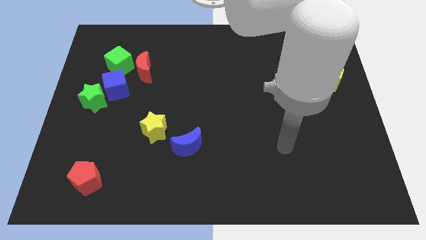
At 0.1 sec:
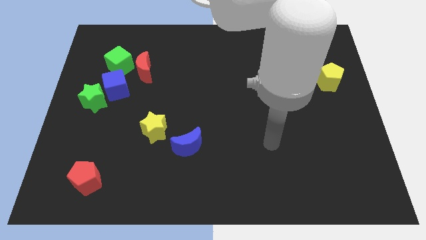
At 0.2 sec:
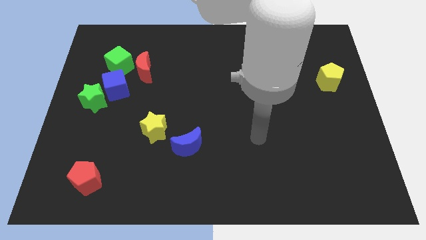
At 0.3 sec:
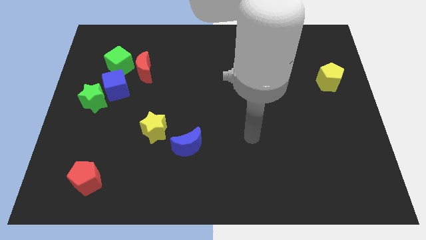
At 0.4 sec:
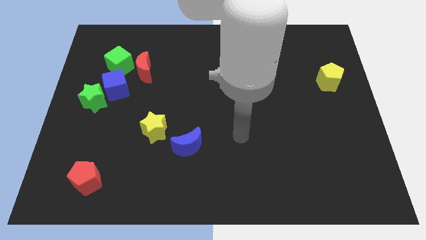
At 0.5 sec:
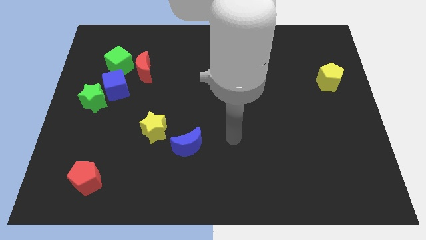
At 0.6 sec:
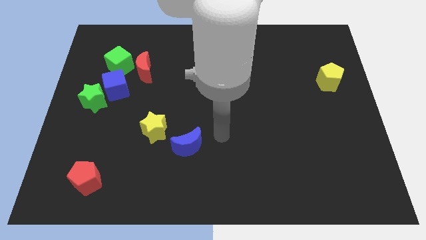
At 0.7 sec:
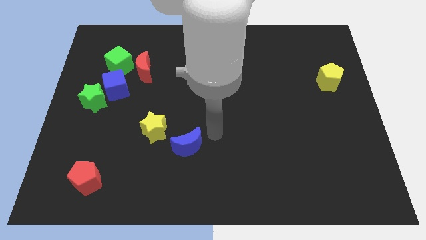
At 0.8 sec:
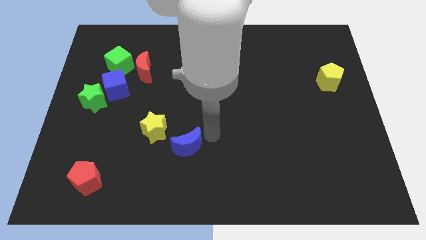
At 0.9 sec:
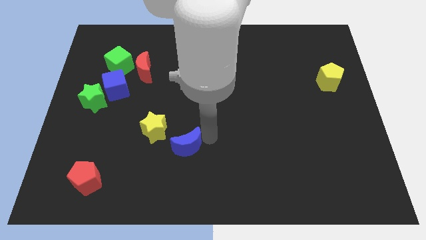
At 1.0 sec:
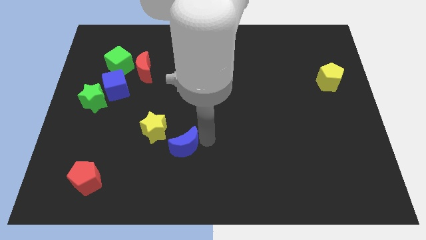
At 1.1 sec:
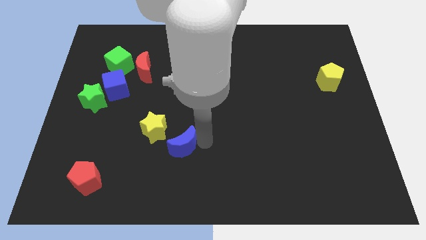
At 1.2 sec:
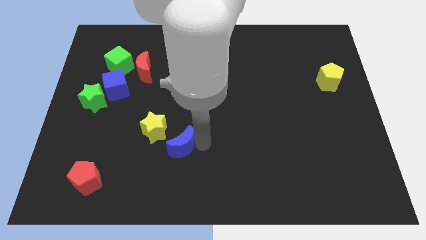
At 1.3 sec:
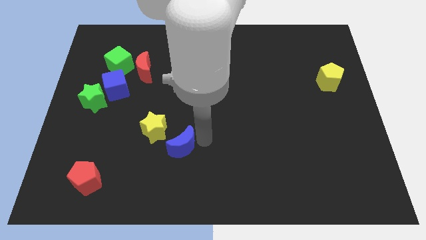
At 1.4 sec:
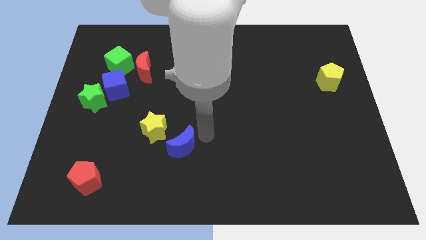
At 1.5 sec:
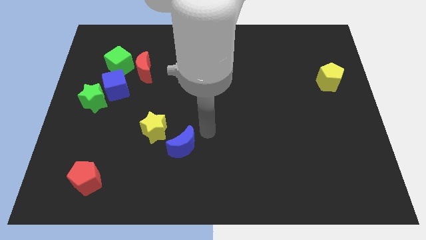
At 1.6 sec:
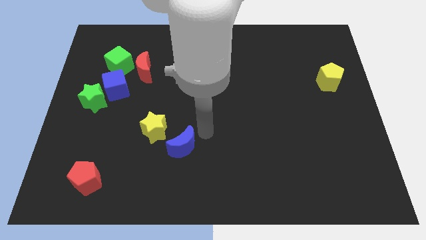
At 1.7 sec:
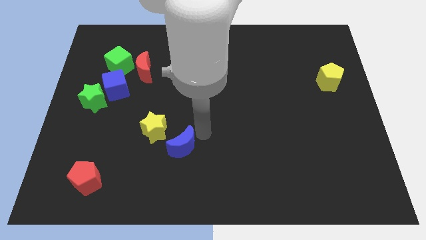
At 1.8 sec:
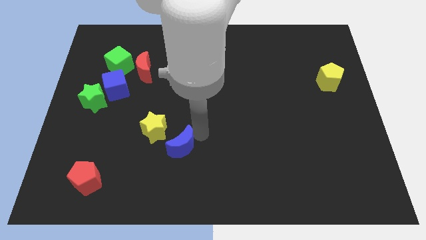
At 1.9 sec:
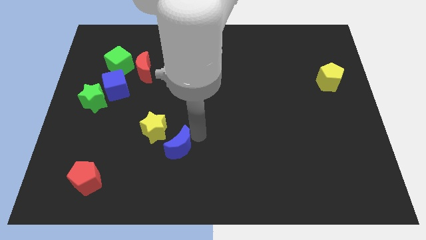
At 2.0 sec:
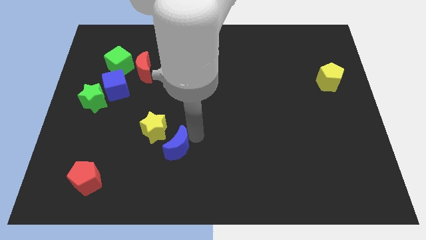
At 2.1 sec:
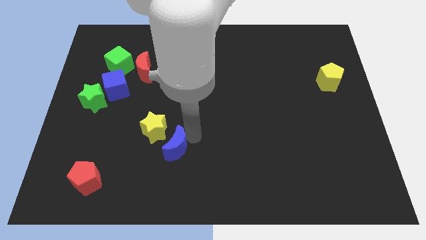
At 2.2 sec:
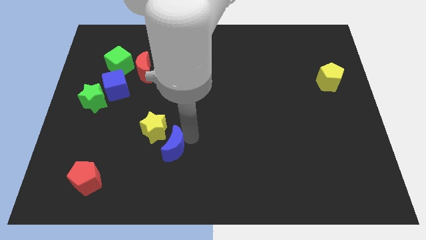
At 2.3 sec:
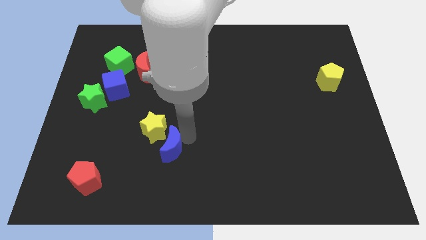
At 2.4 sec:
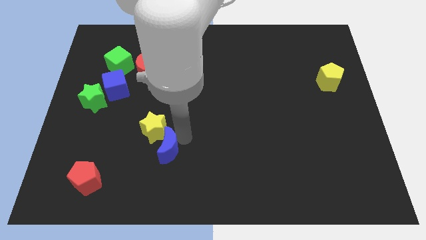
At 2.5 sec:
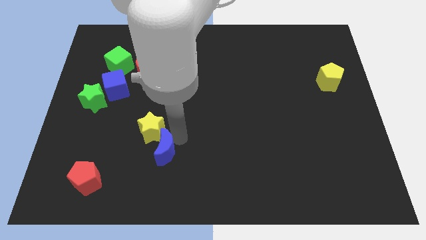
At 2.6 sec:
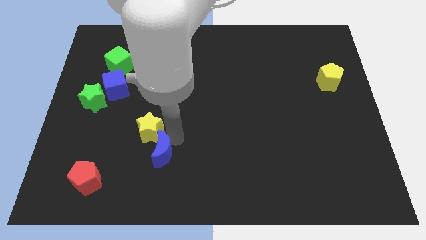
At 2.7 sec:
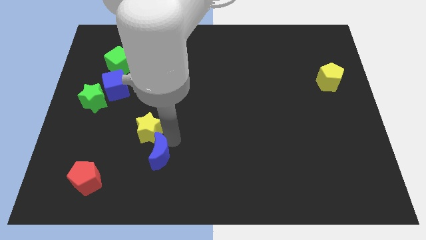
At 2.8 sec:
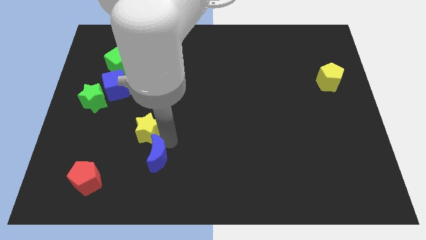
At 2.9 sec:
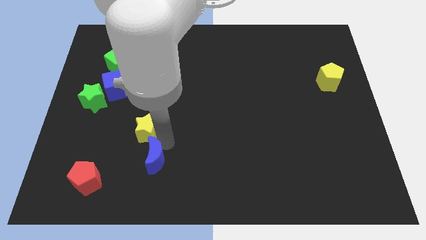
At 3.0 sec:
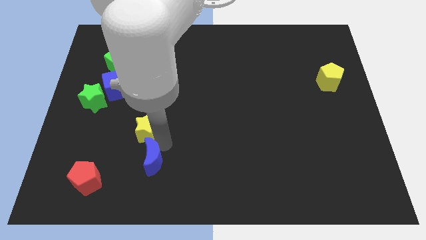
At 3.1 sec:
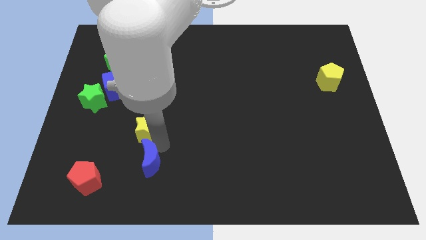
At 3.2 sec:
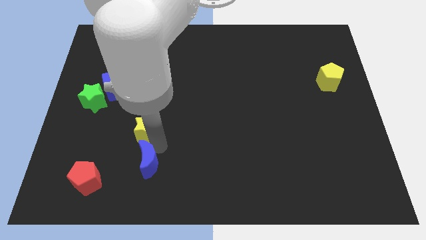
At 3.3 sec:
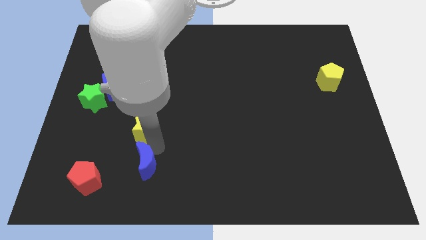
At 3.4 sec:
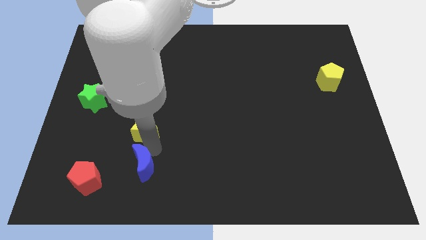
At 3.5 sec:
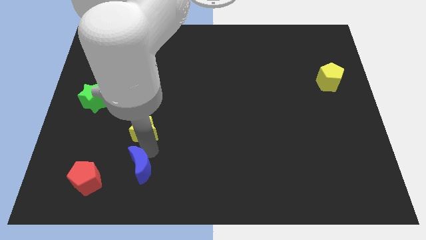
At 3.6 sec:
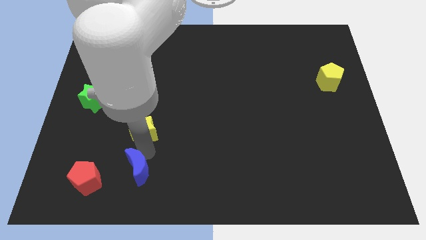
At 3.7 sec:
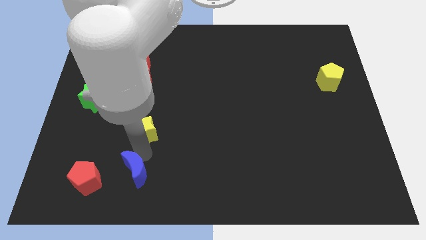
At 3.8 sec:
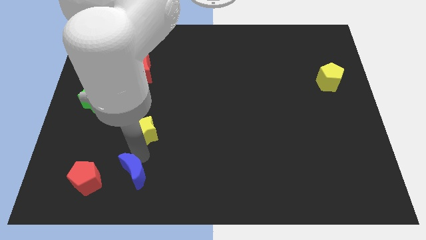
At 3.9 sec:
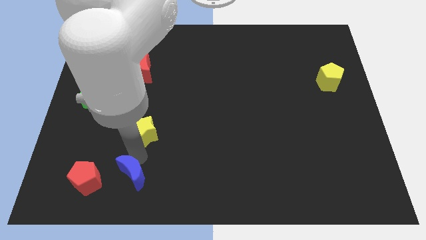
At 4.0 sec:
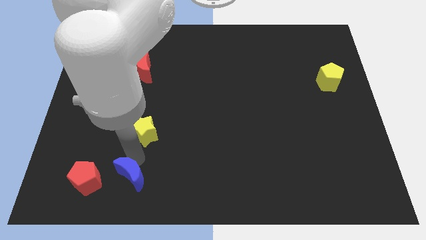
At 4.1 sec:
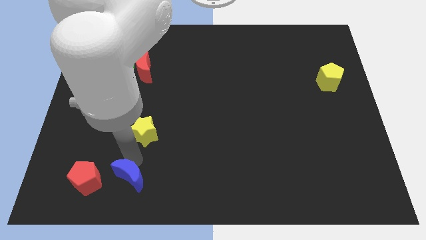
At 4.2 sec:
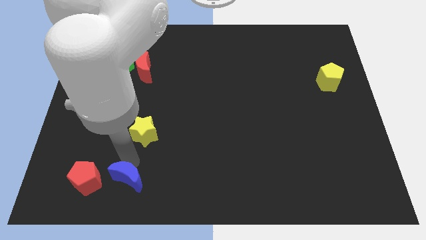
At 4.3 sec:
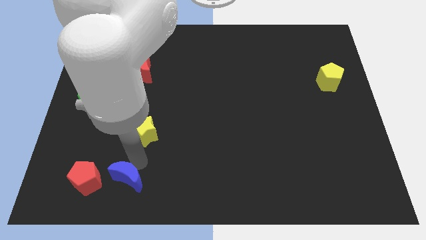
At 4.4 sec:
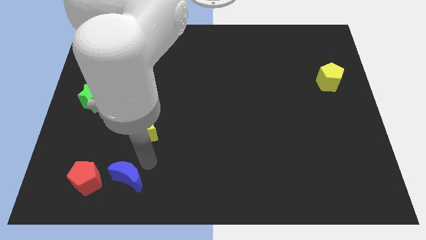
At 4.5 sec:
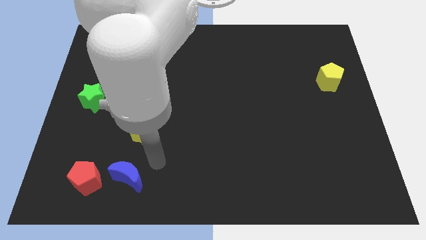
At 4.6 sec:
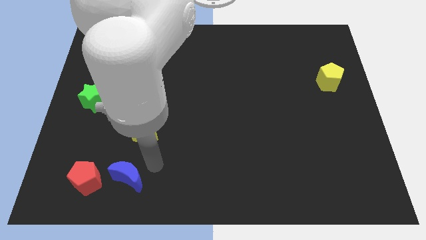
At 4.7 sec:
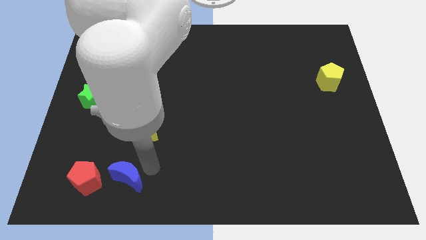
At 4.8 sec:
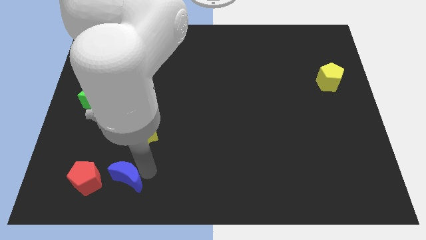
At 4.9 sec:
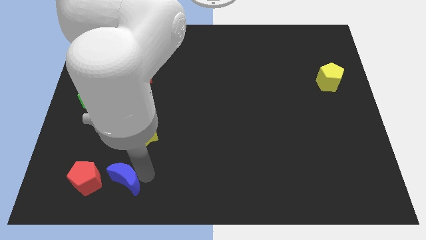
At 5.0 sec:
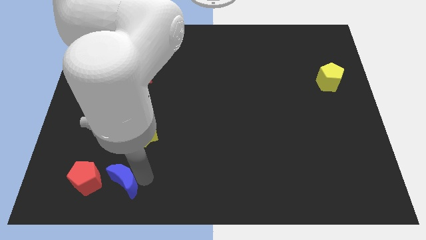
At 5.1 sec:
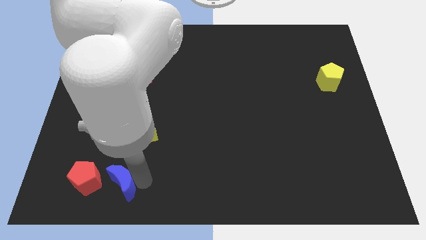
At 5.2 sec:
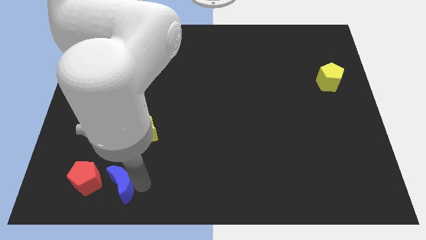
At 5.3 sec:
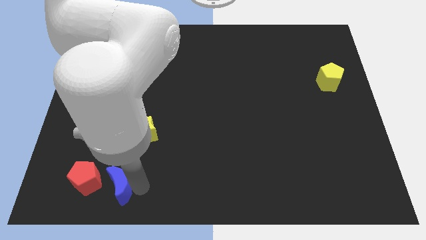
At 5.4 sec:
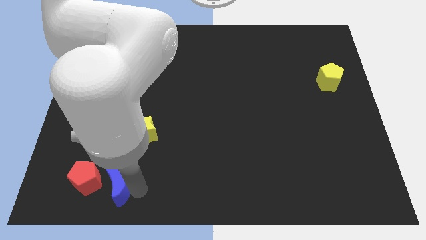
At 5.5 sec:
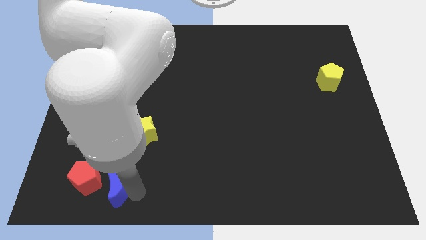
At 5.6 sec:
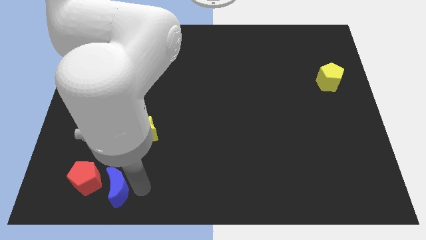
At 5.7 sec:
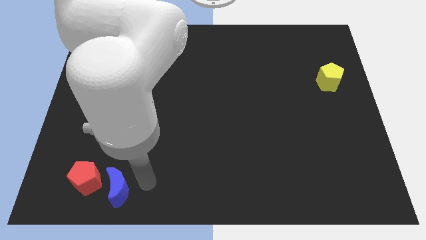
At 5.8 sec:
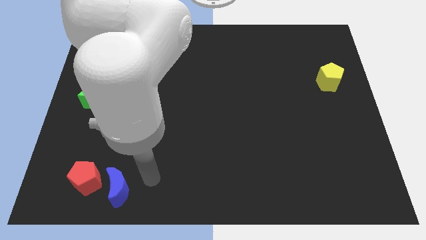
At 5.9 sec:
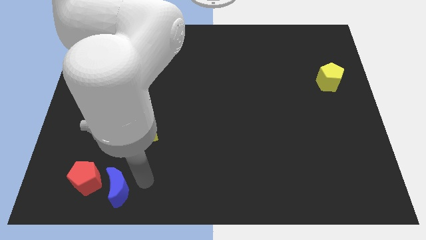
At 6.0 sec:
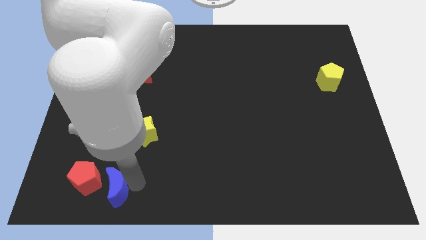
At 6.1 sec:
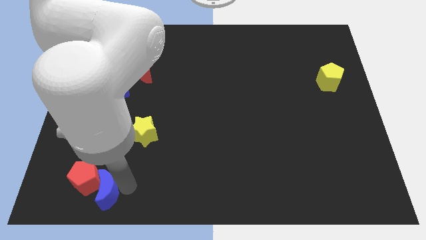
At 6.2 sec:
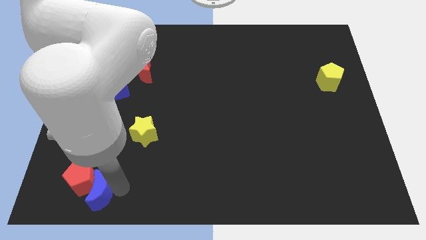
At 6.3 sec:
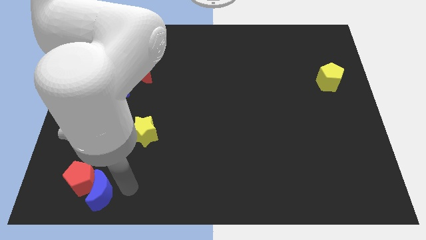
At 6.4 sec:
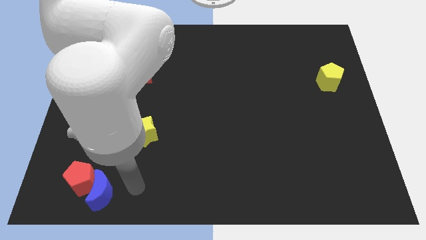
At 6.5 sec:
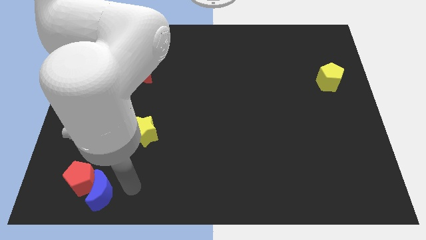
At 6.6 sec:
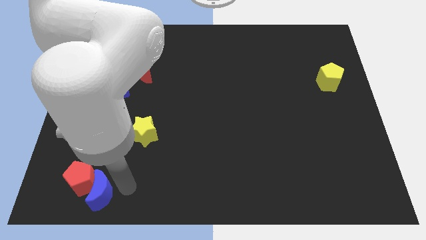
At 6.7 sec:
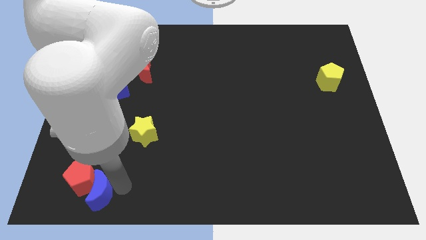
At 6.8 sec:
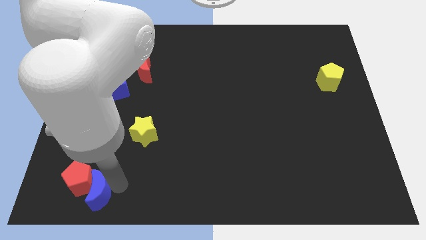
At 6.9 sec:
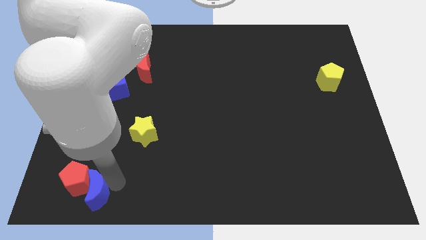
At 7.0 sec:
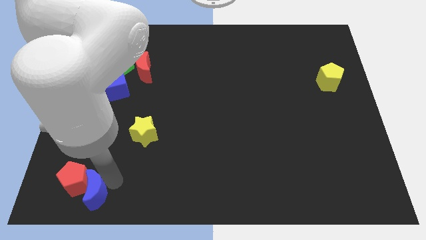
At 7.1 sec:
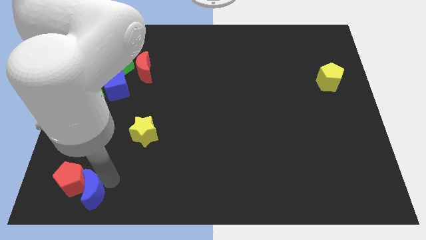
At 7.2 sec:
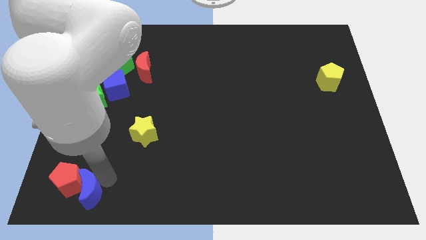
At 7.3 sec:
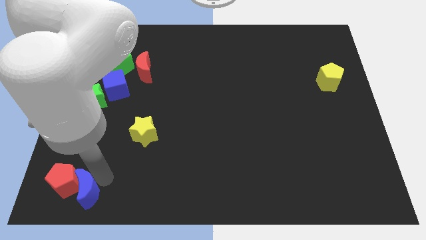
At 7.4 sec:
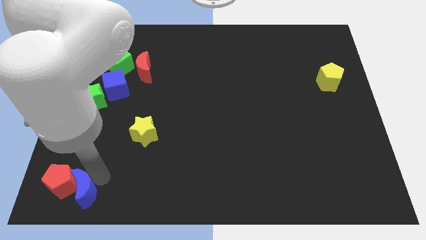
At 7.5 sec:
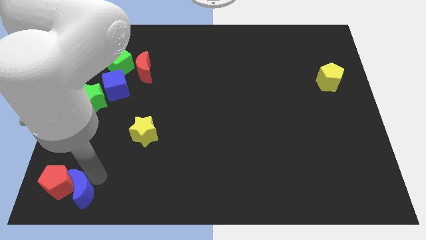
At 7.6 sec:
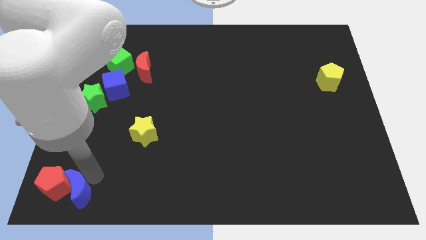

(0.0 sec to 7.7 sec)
slide the blue moon to the bottom left of the board
